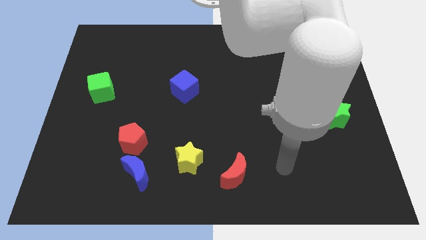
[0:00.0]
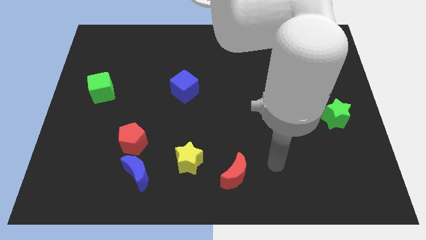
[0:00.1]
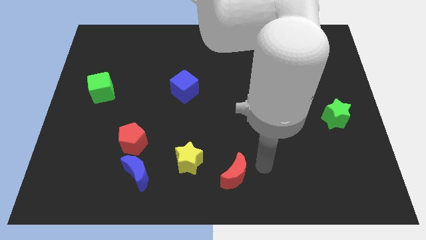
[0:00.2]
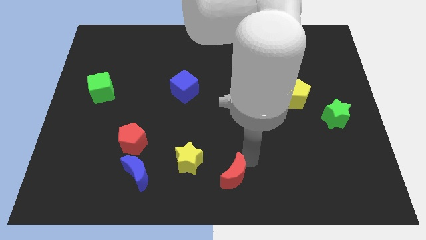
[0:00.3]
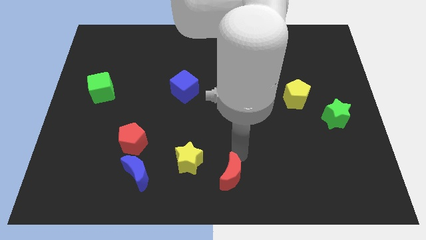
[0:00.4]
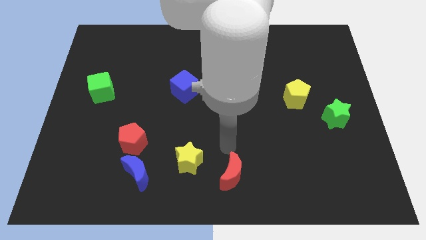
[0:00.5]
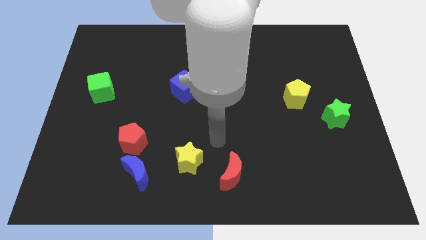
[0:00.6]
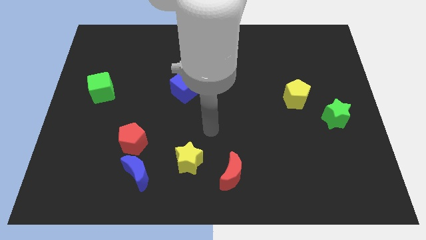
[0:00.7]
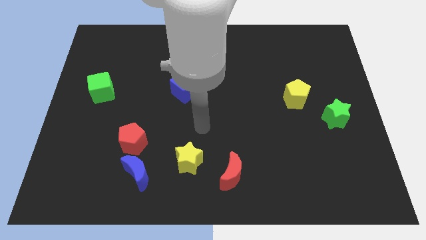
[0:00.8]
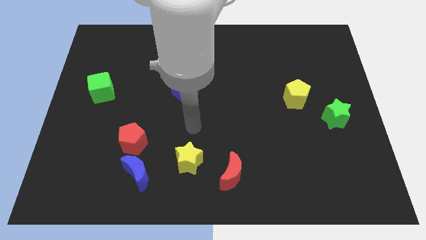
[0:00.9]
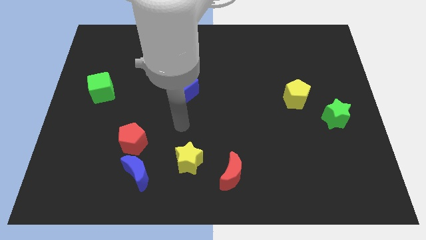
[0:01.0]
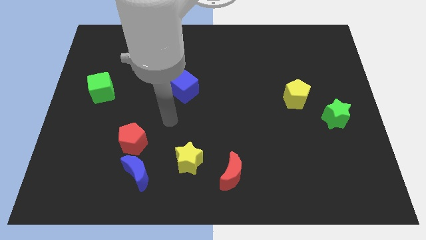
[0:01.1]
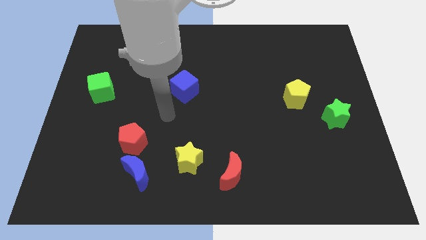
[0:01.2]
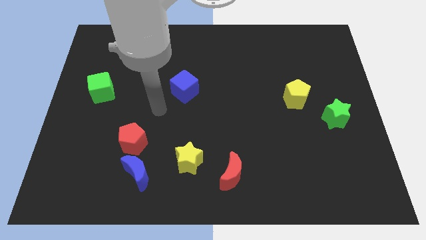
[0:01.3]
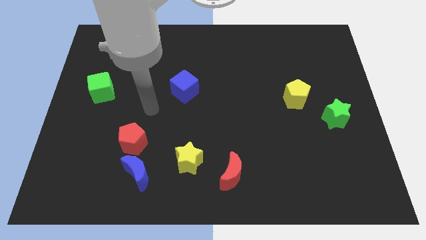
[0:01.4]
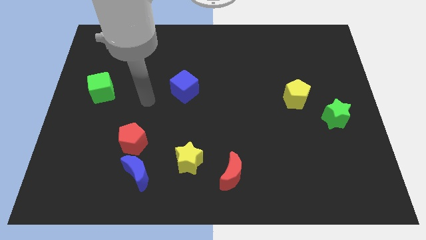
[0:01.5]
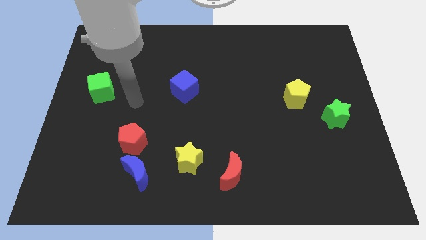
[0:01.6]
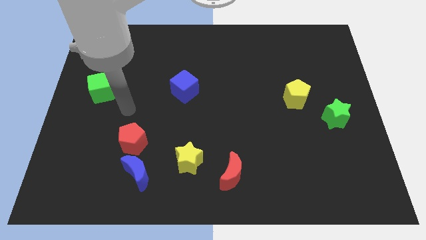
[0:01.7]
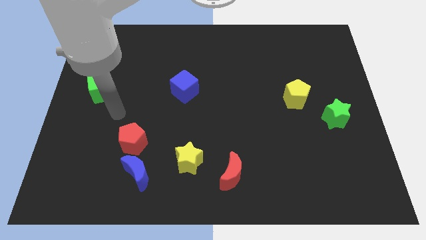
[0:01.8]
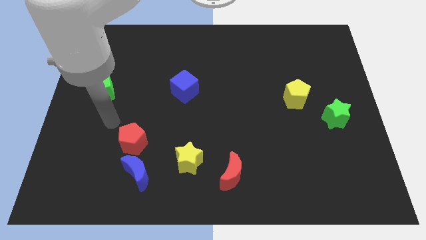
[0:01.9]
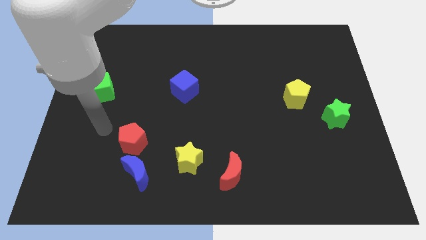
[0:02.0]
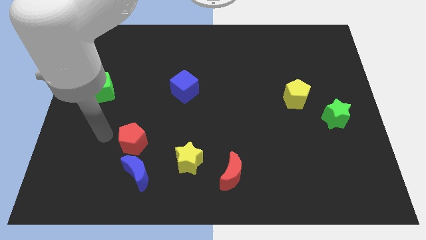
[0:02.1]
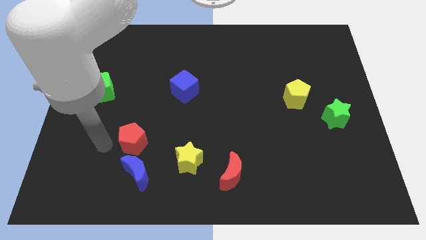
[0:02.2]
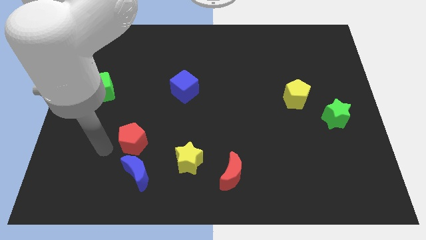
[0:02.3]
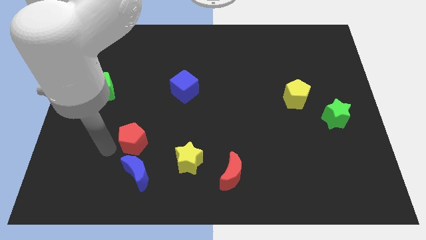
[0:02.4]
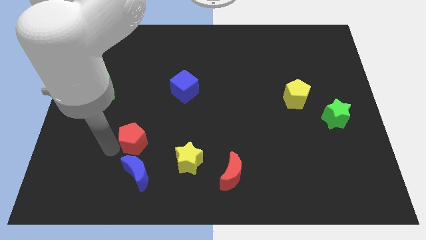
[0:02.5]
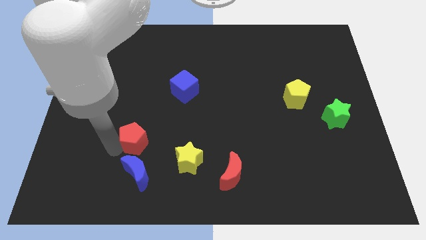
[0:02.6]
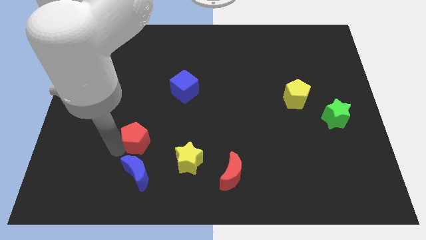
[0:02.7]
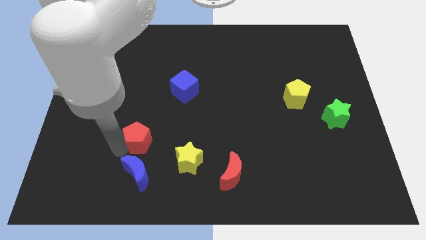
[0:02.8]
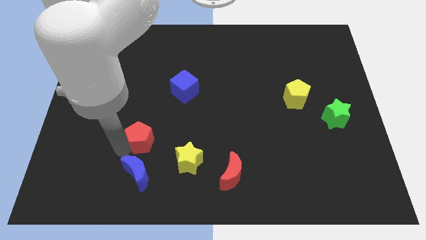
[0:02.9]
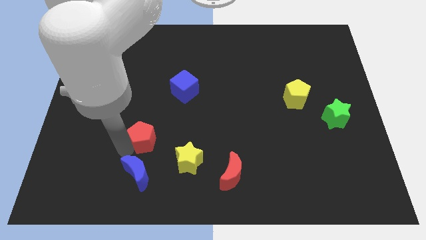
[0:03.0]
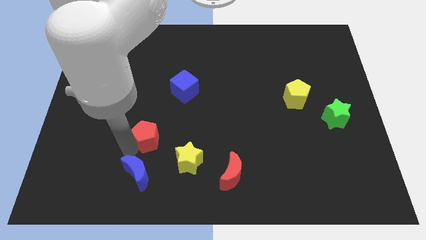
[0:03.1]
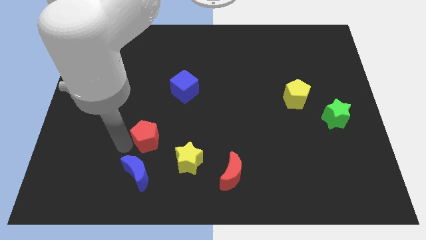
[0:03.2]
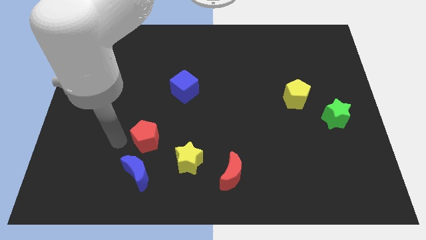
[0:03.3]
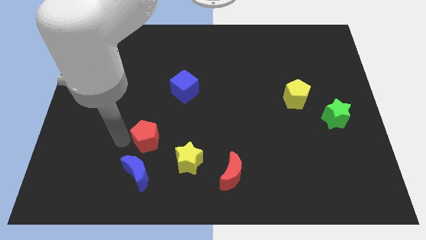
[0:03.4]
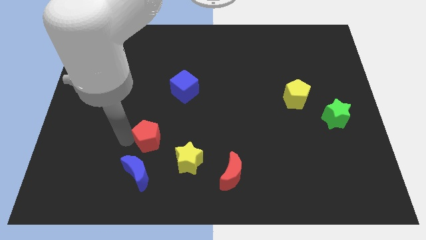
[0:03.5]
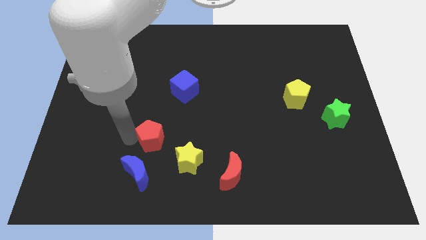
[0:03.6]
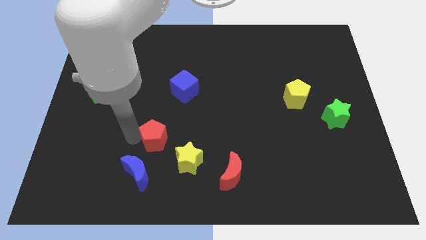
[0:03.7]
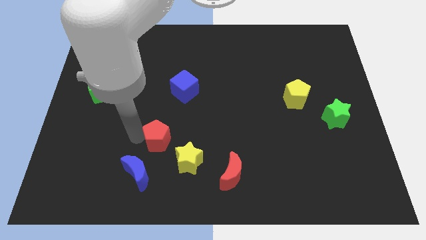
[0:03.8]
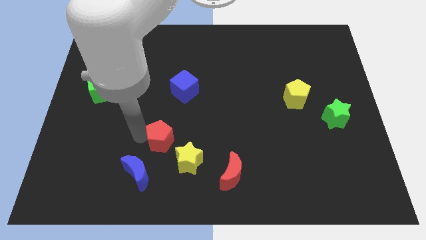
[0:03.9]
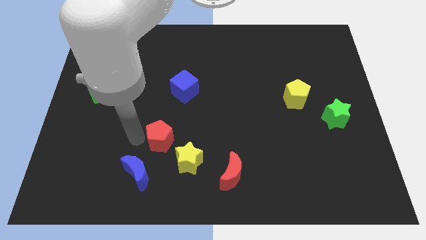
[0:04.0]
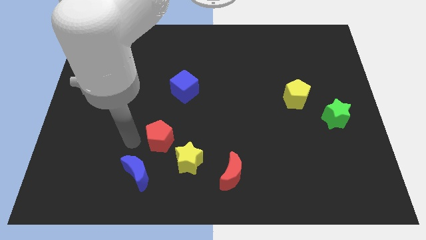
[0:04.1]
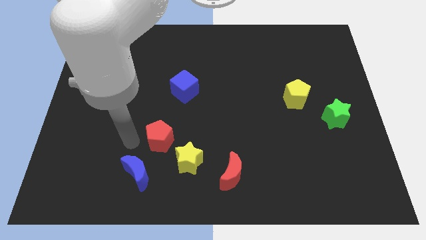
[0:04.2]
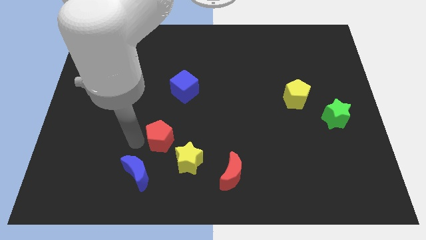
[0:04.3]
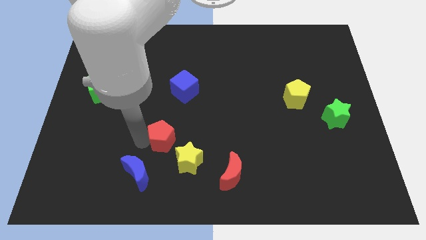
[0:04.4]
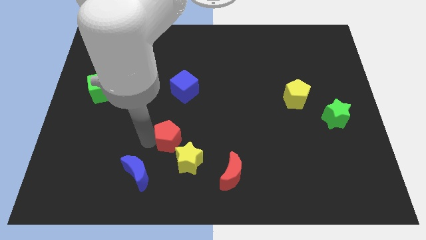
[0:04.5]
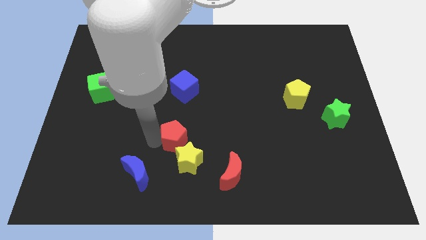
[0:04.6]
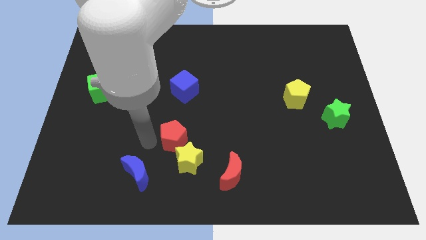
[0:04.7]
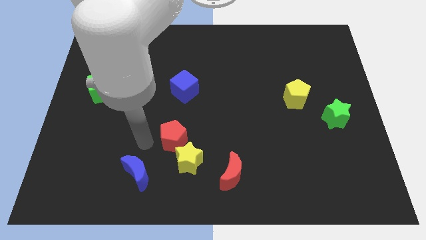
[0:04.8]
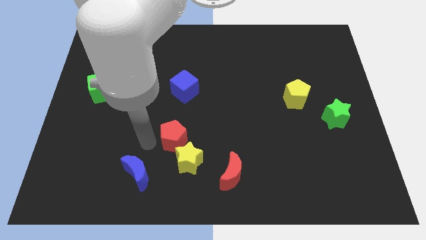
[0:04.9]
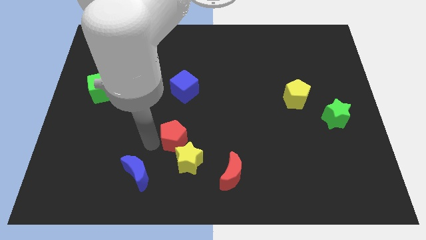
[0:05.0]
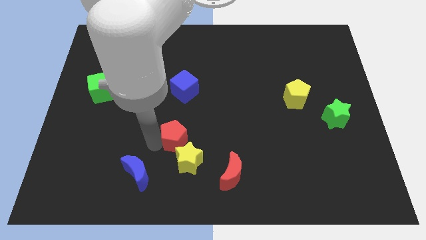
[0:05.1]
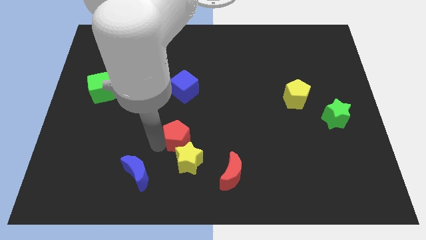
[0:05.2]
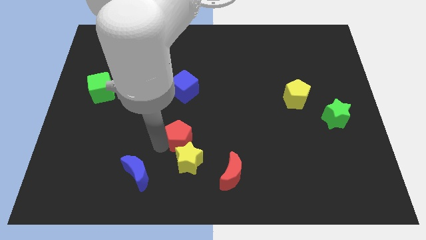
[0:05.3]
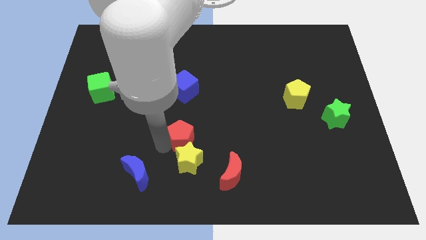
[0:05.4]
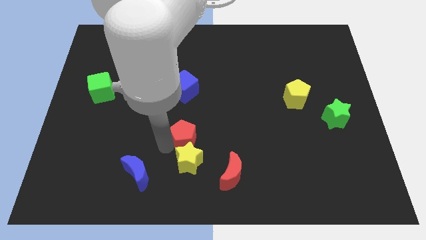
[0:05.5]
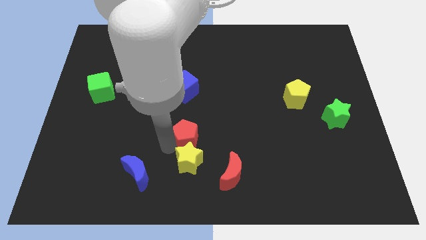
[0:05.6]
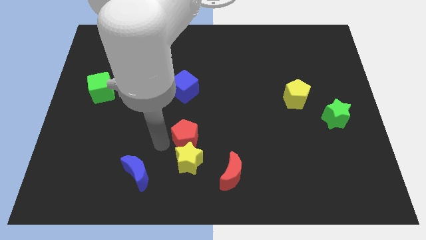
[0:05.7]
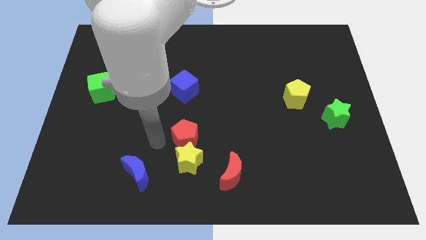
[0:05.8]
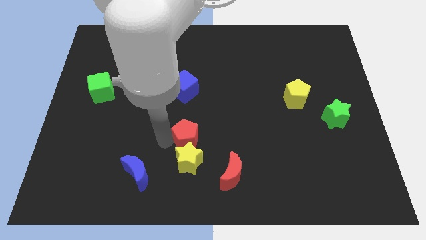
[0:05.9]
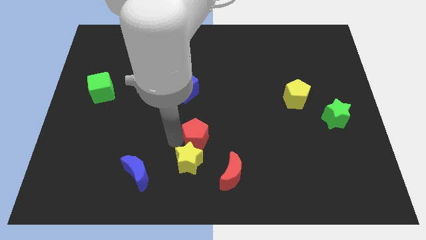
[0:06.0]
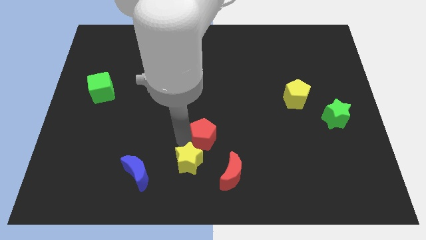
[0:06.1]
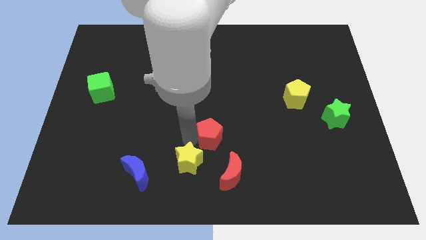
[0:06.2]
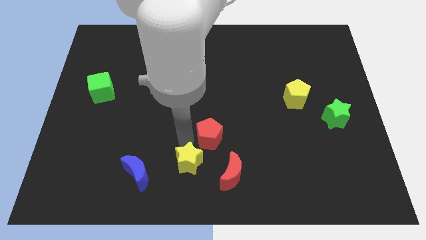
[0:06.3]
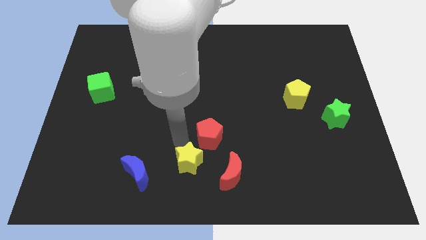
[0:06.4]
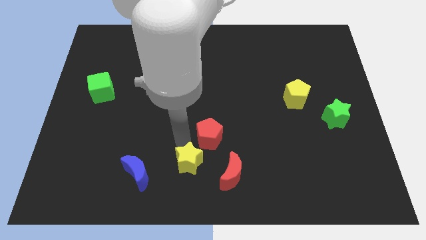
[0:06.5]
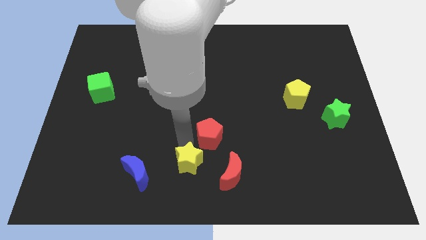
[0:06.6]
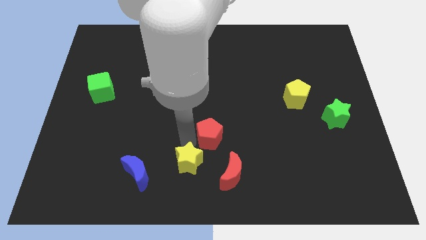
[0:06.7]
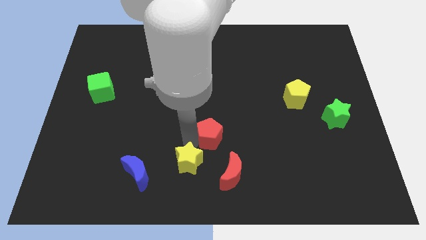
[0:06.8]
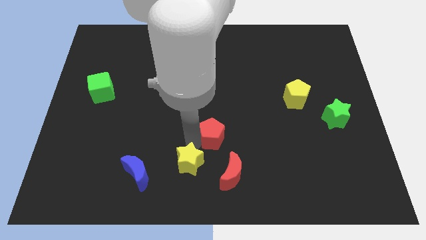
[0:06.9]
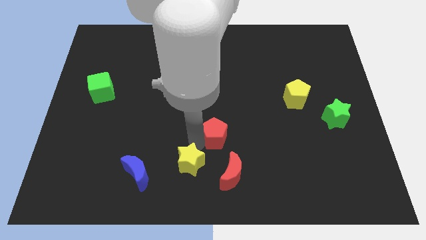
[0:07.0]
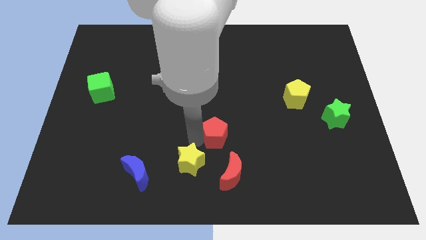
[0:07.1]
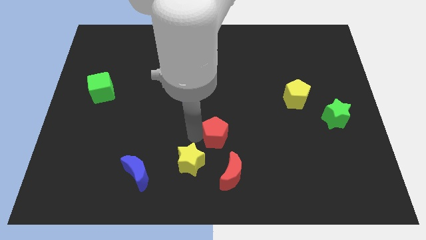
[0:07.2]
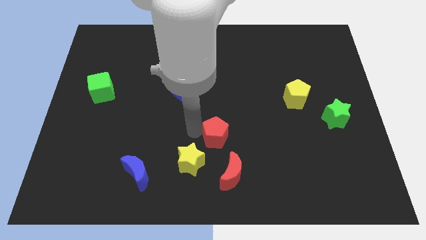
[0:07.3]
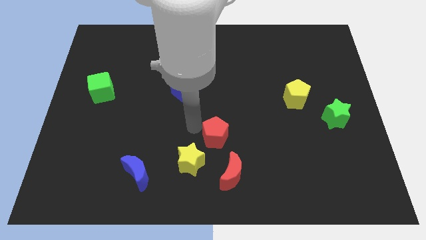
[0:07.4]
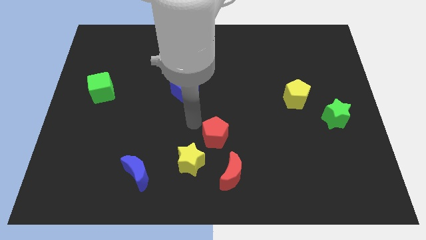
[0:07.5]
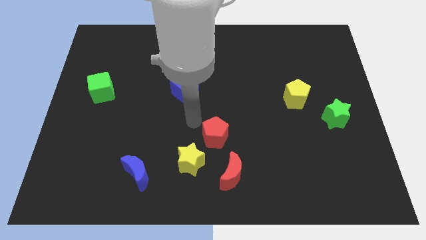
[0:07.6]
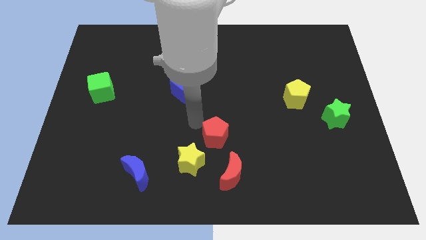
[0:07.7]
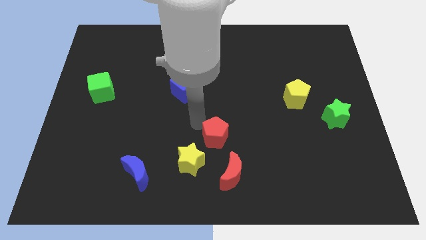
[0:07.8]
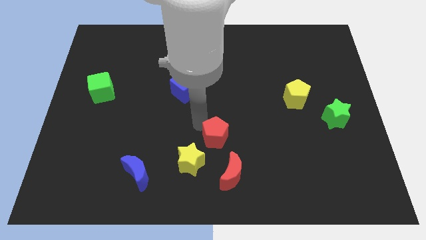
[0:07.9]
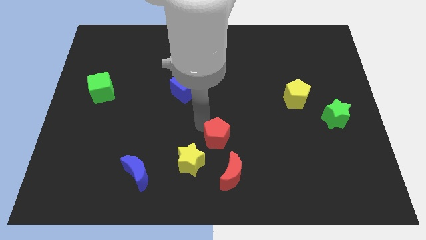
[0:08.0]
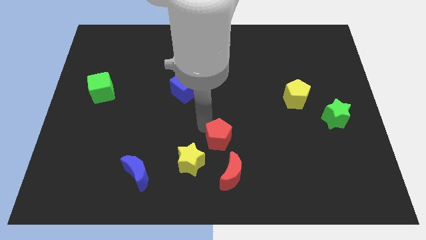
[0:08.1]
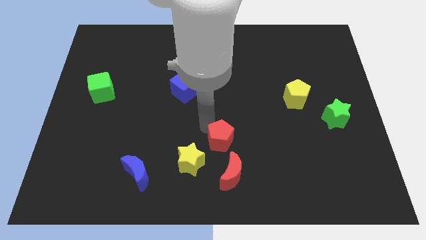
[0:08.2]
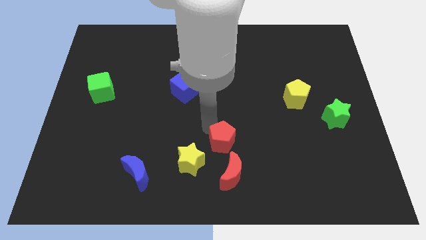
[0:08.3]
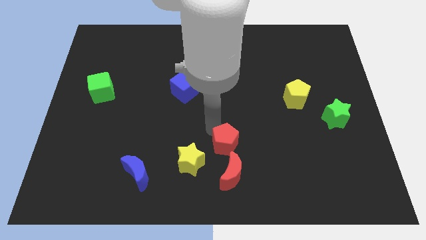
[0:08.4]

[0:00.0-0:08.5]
move the red pentagon right
